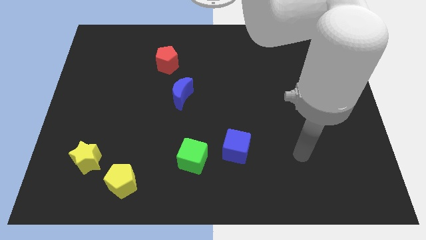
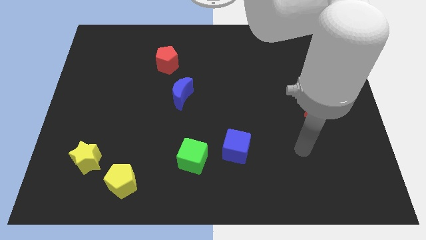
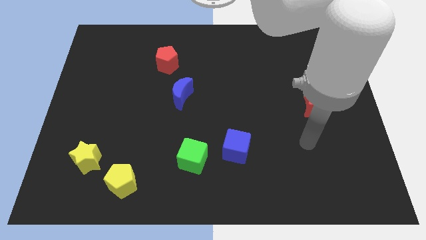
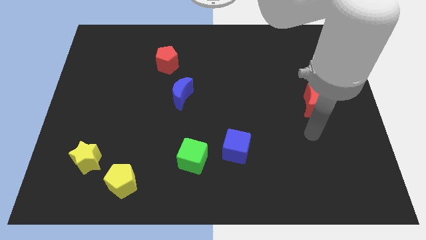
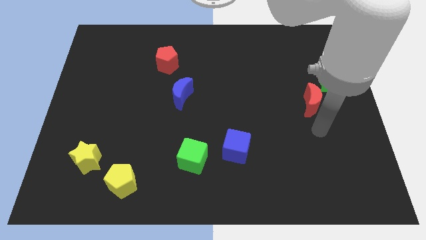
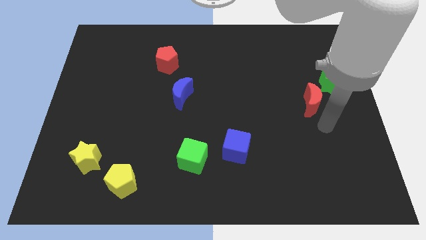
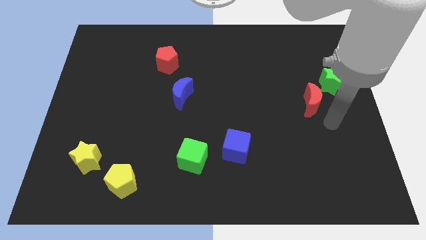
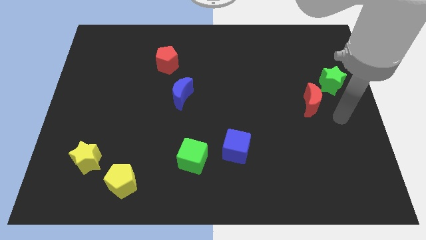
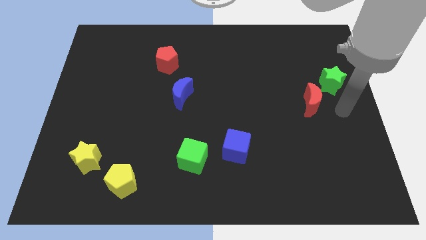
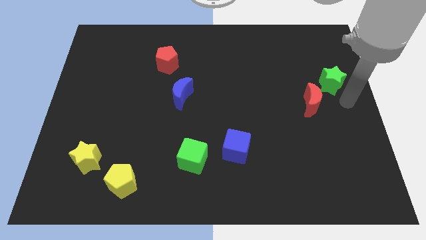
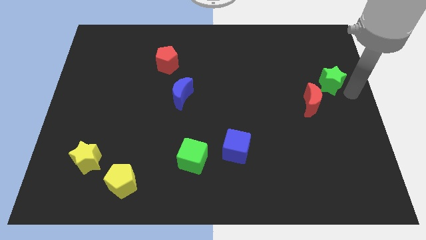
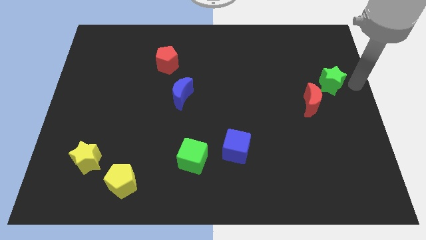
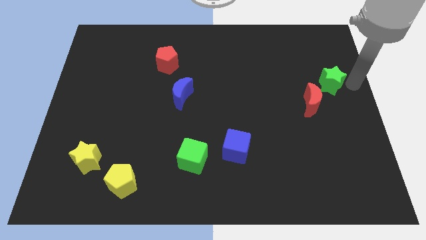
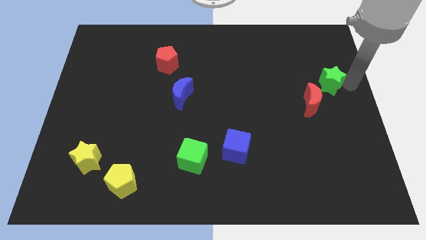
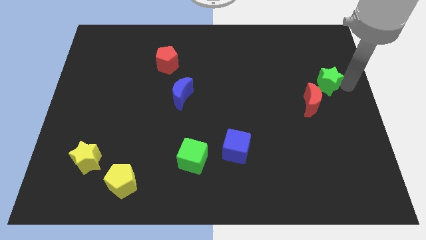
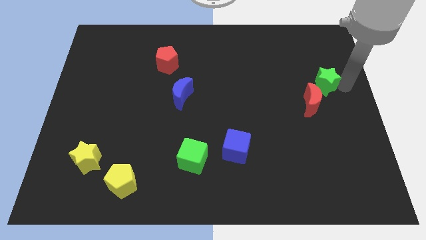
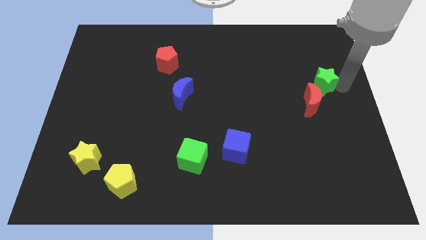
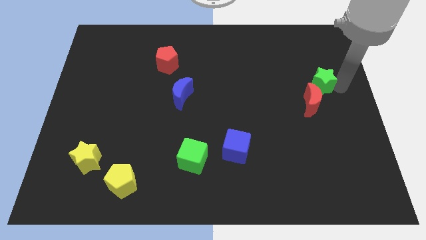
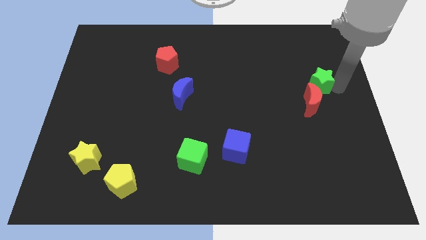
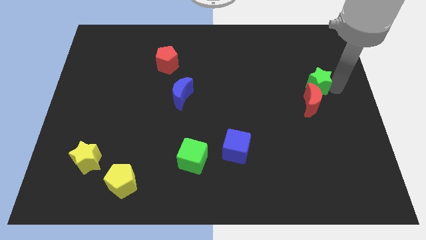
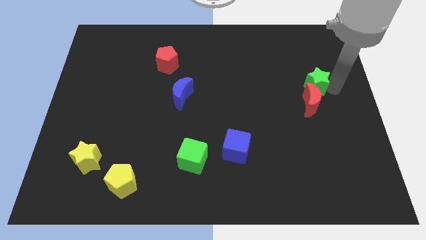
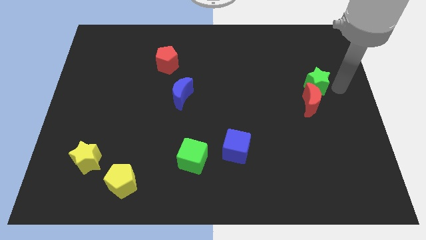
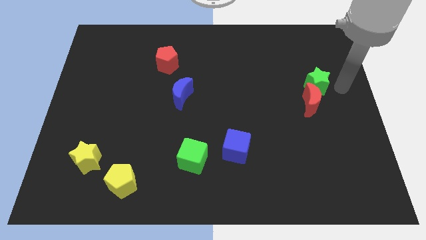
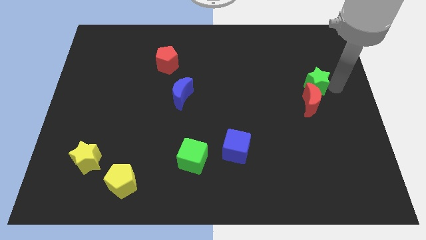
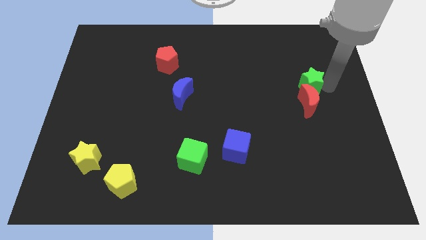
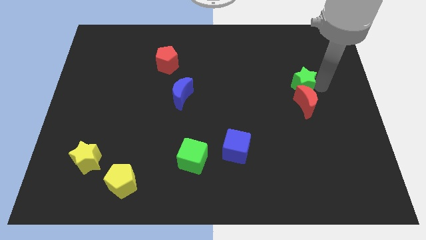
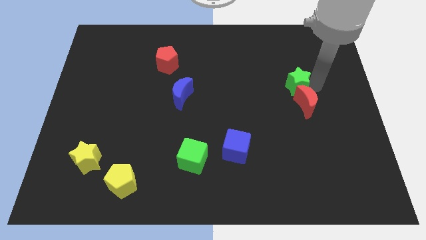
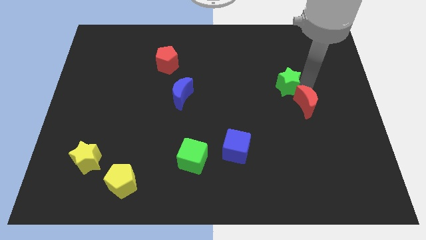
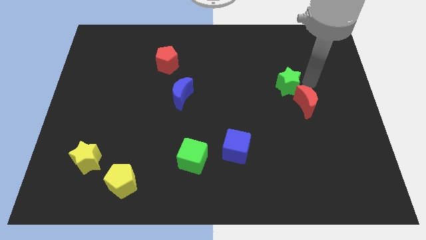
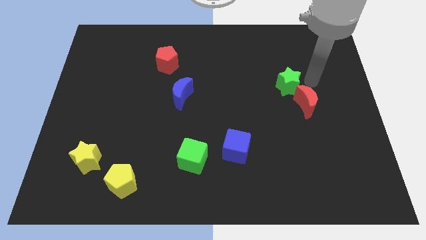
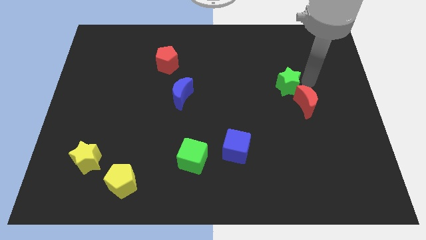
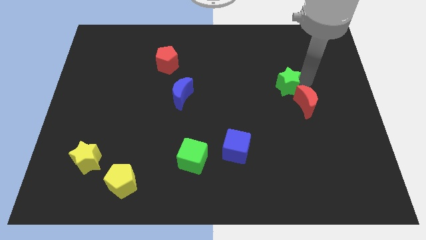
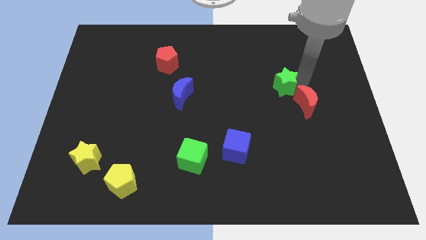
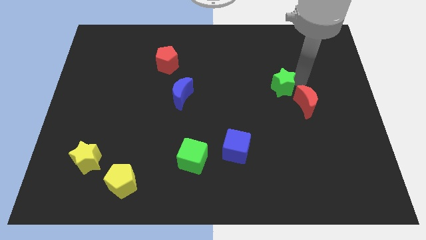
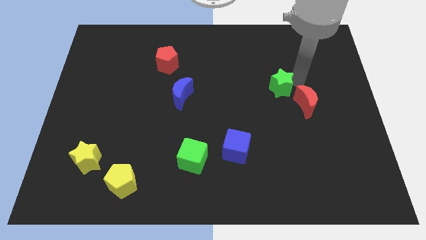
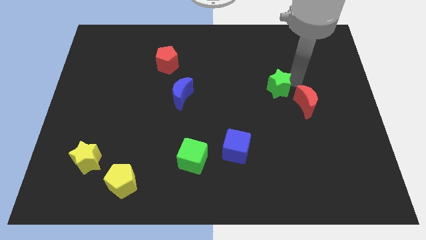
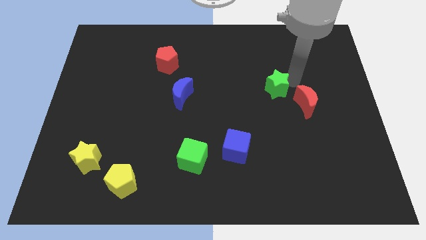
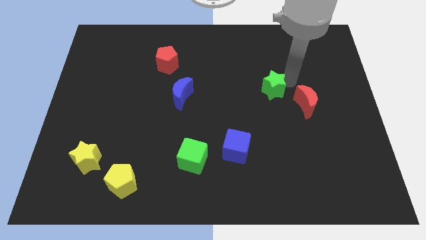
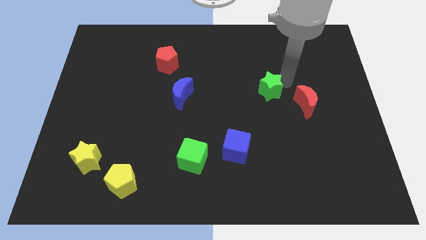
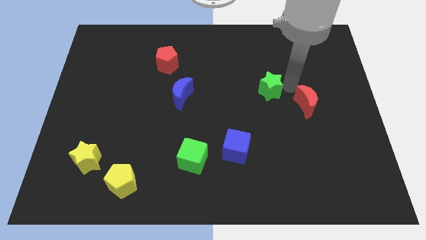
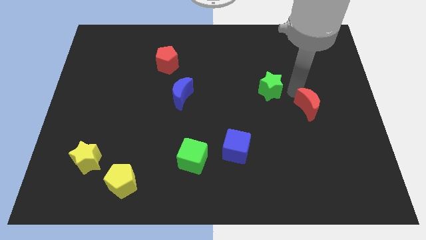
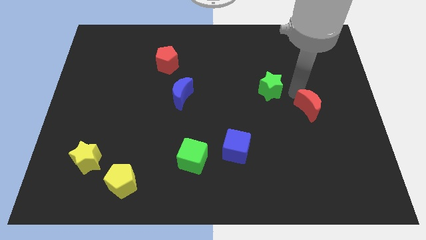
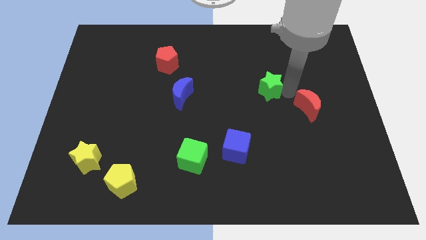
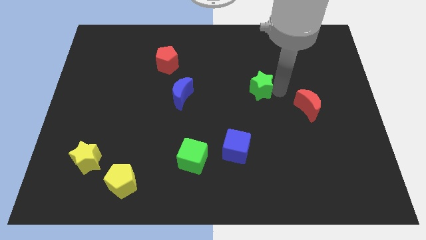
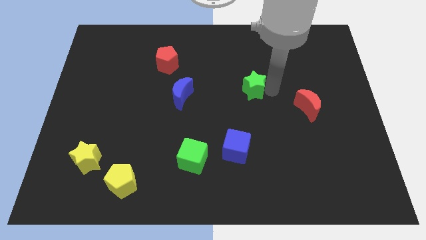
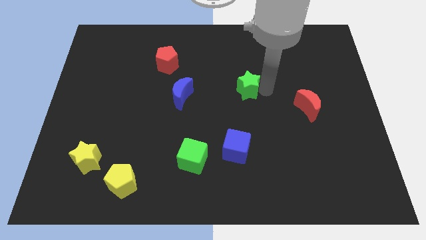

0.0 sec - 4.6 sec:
move the green star left

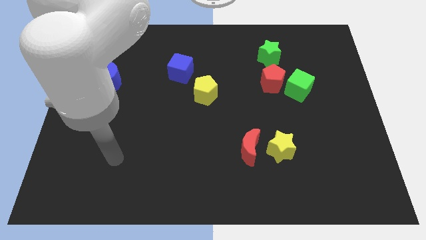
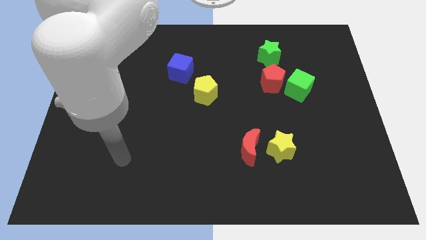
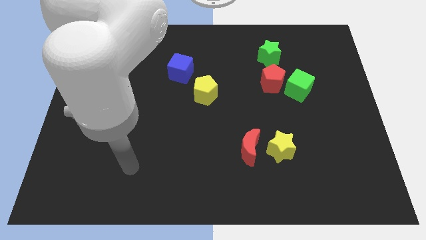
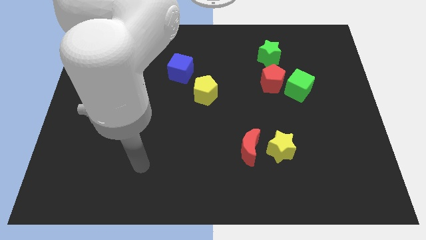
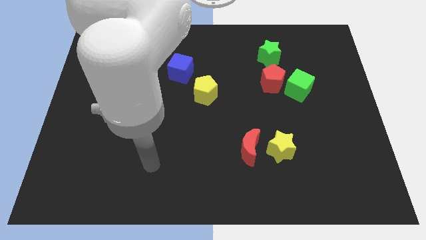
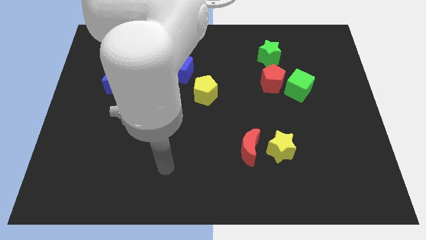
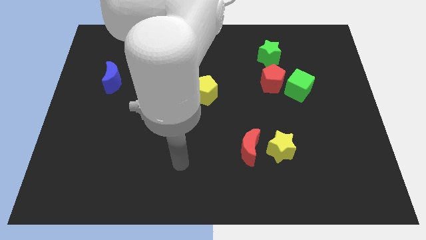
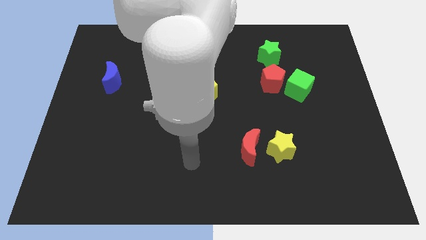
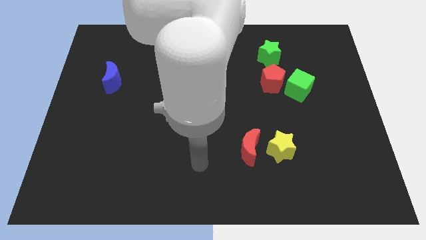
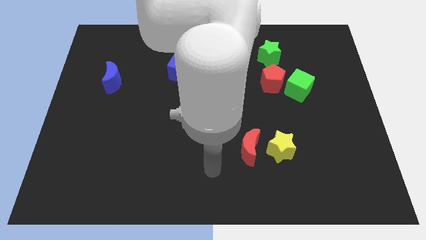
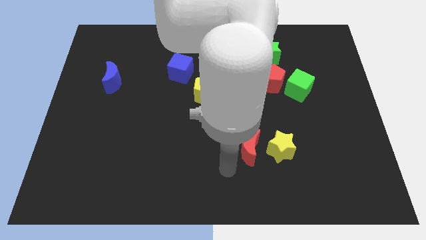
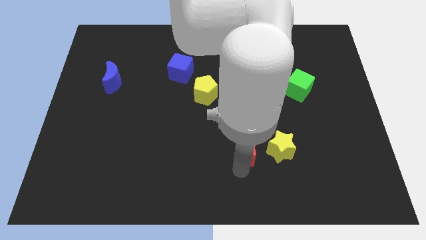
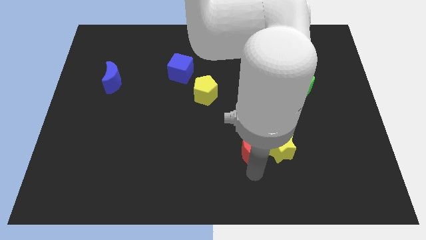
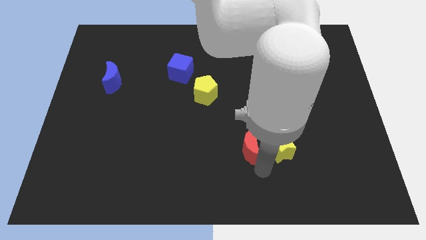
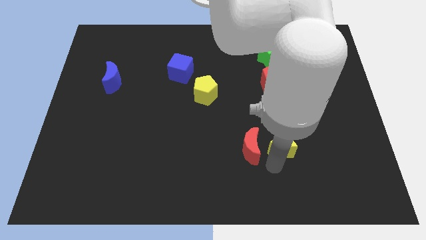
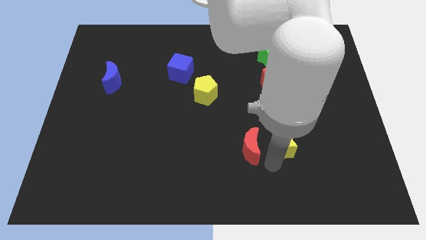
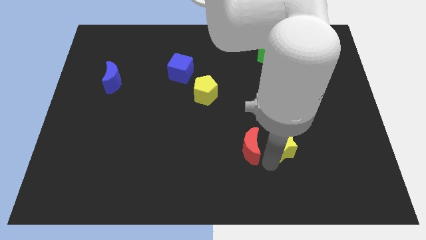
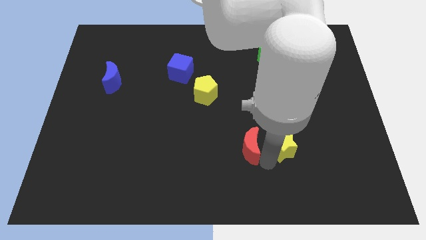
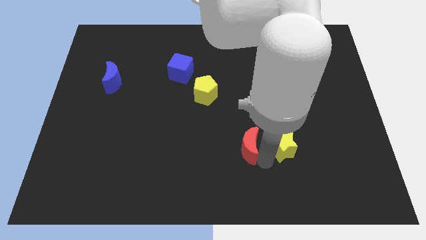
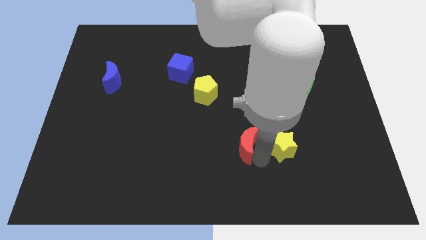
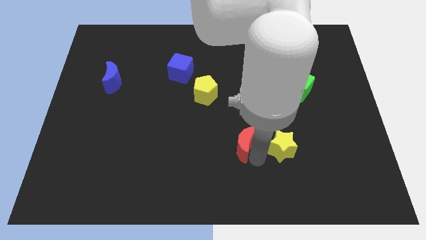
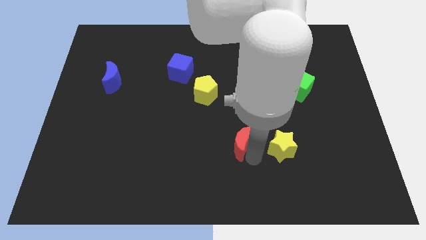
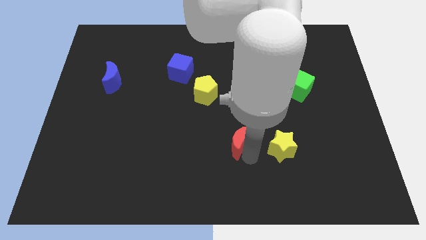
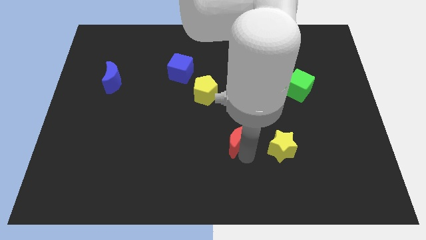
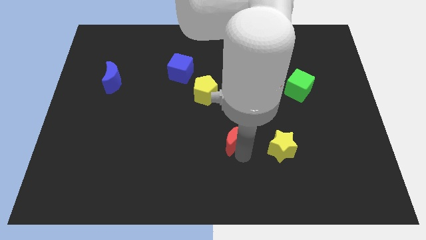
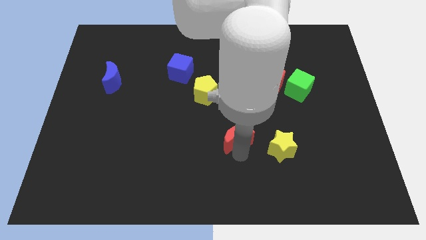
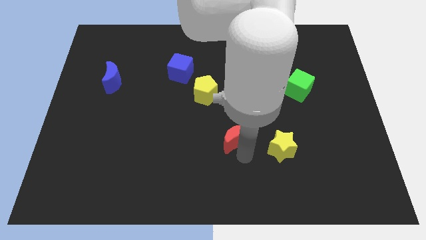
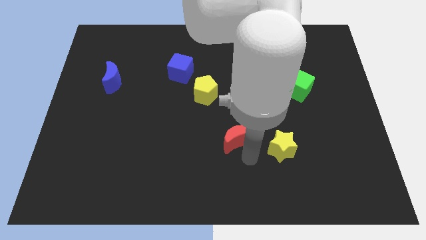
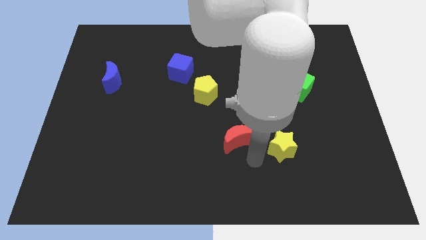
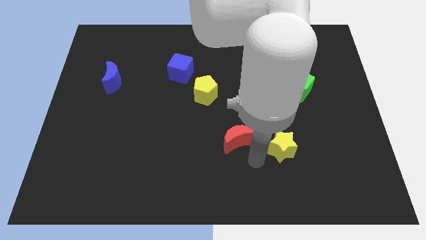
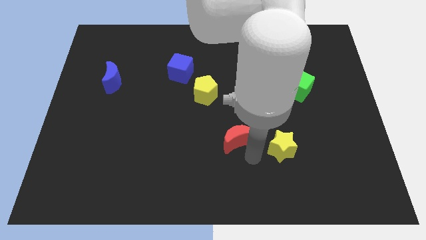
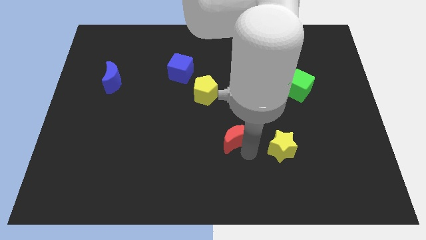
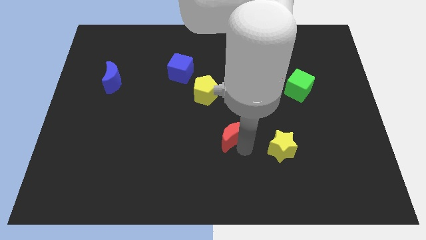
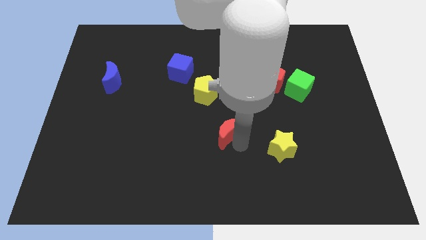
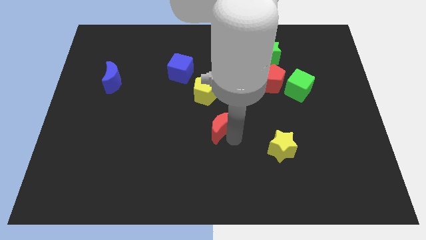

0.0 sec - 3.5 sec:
slightly push the red moon up and to the left

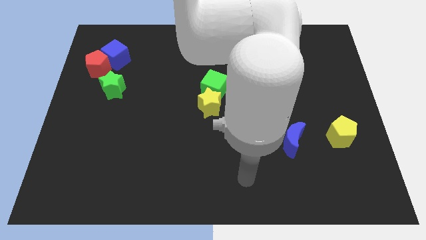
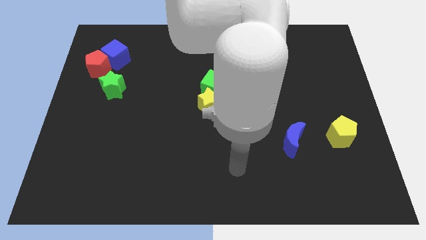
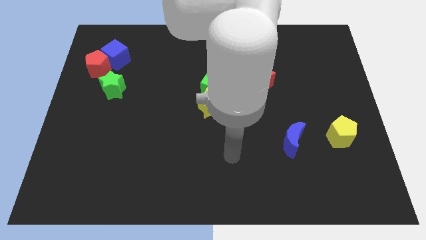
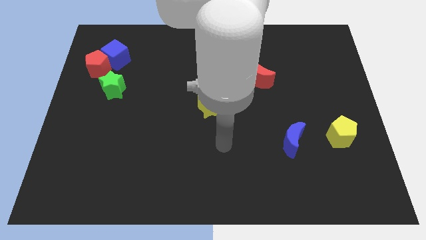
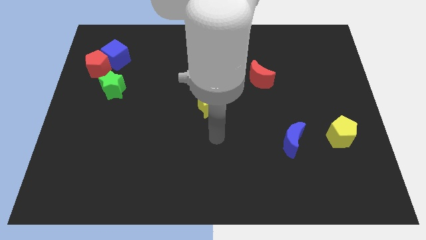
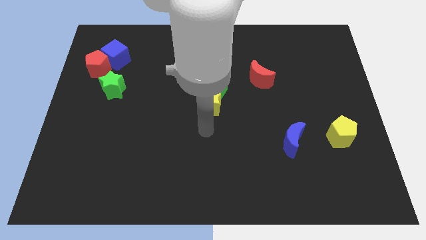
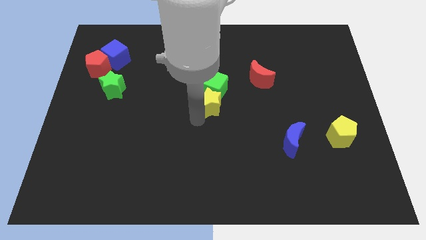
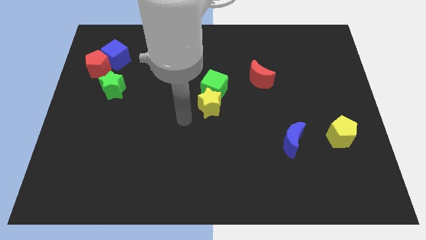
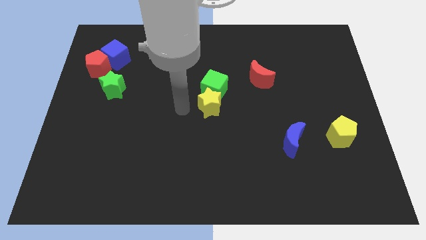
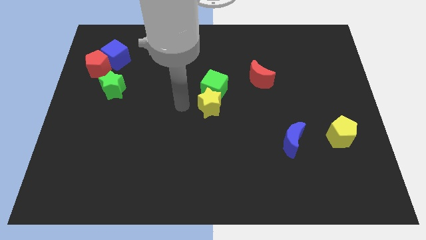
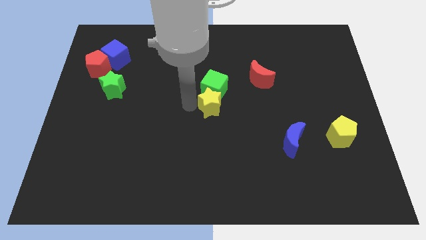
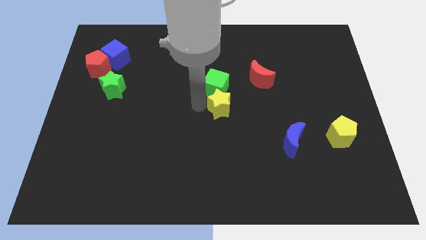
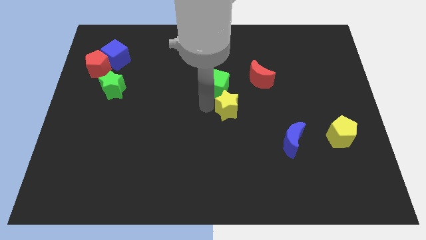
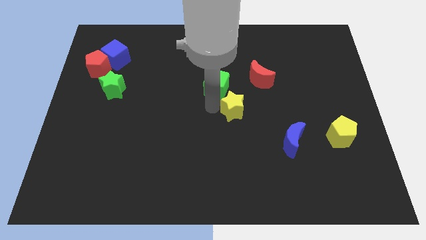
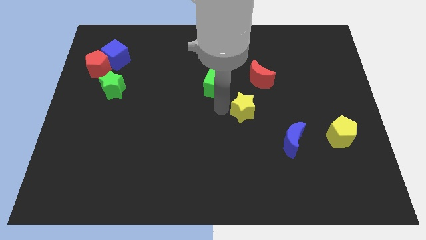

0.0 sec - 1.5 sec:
move the yellow star a little to the right
